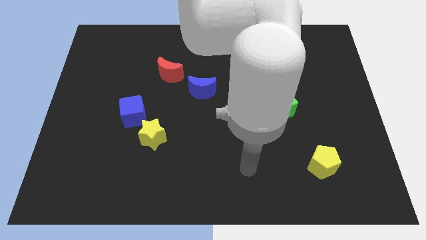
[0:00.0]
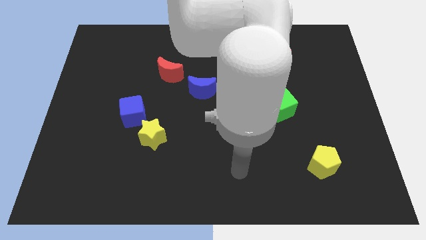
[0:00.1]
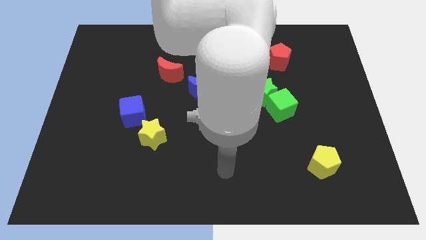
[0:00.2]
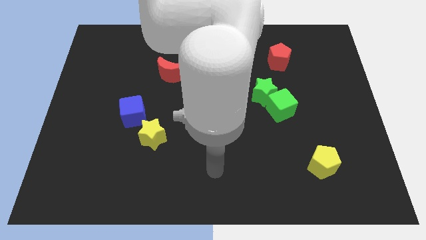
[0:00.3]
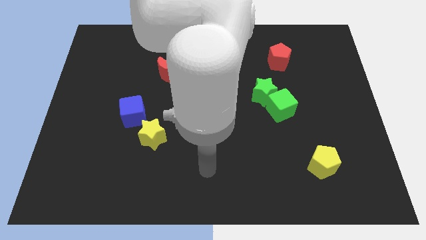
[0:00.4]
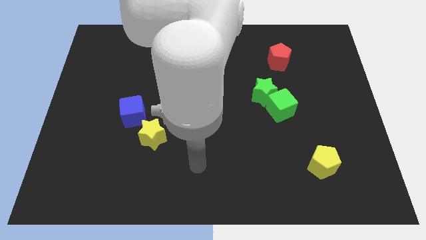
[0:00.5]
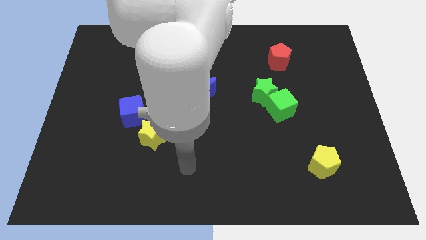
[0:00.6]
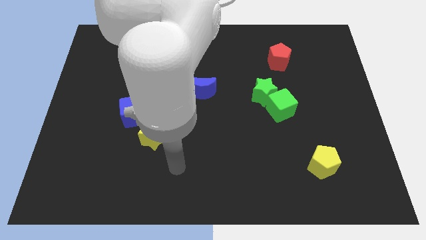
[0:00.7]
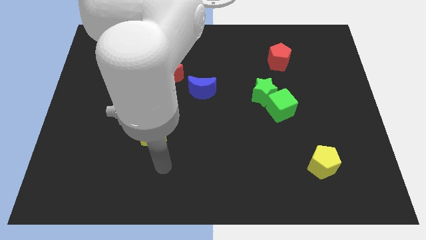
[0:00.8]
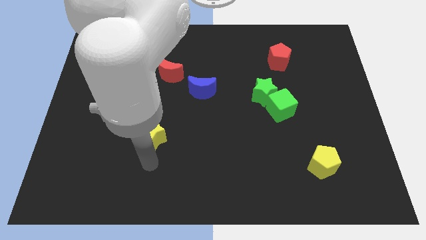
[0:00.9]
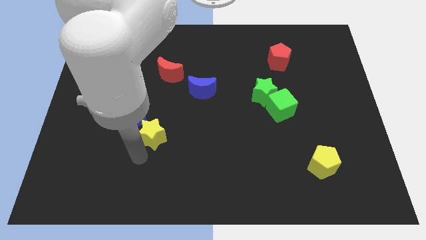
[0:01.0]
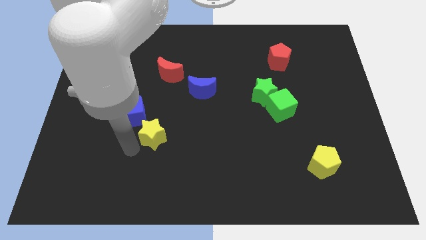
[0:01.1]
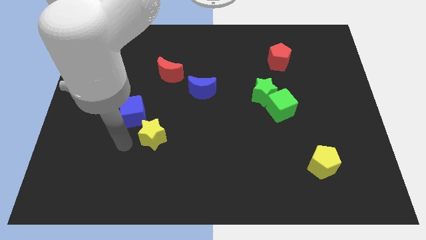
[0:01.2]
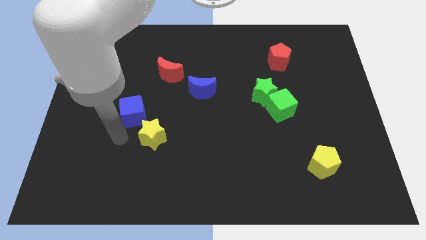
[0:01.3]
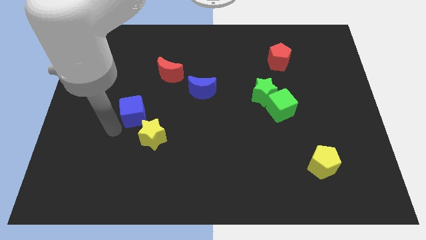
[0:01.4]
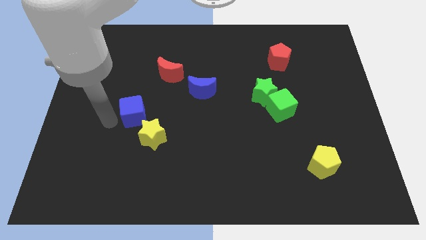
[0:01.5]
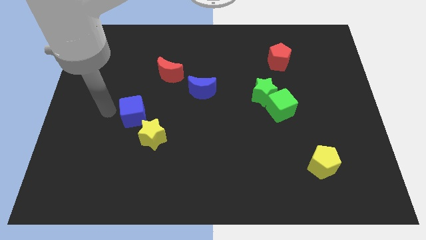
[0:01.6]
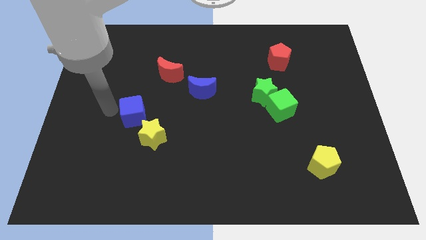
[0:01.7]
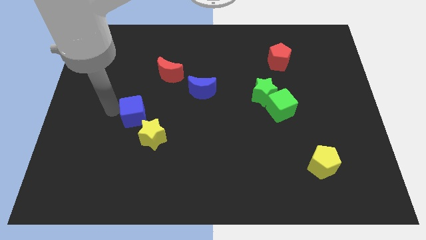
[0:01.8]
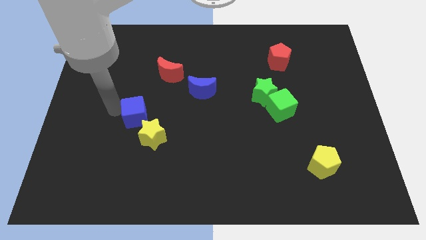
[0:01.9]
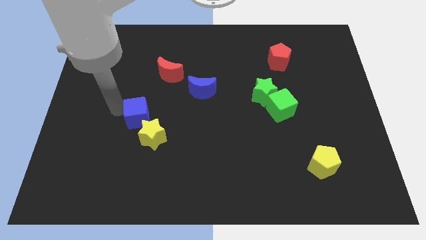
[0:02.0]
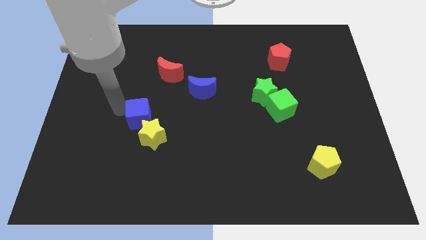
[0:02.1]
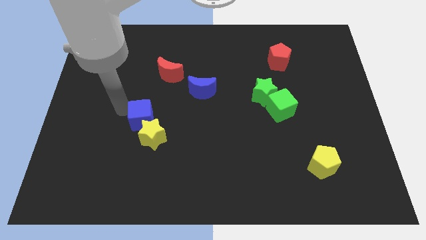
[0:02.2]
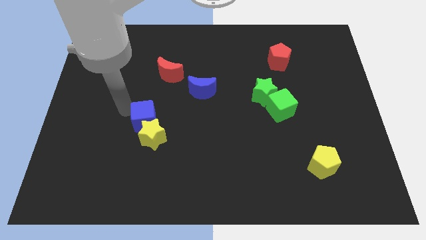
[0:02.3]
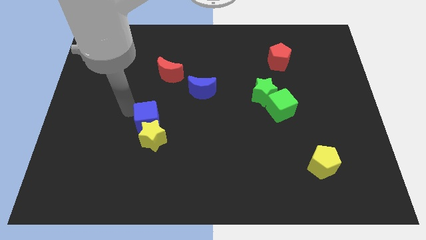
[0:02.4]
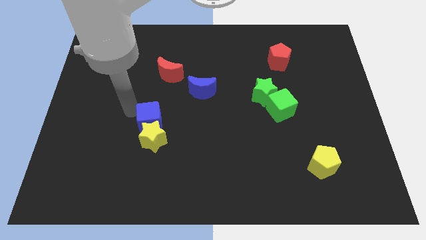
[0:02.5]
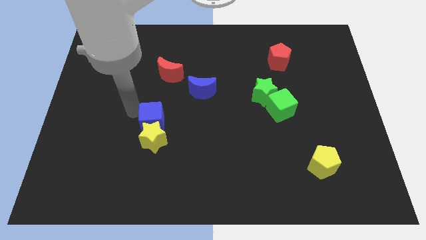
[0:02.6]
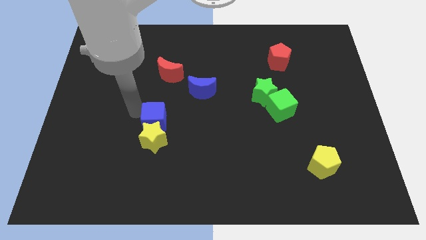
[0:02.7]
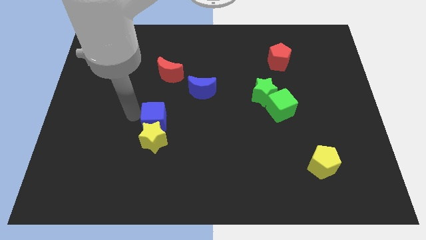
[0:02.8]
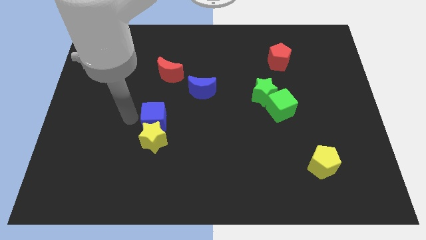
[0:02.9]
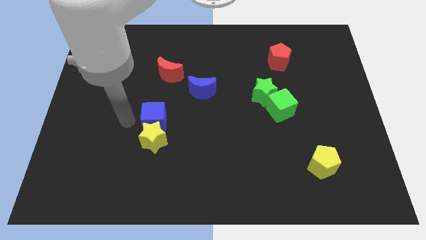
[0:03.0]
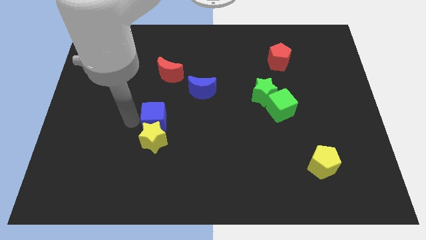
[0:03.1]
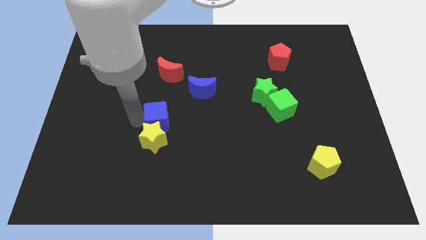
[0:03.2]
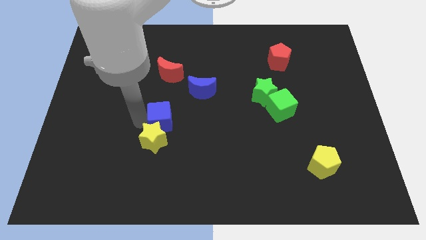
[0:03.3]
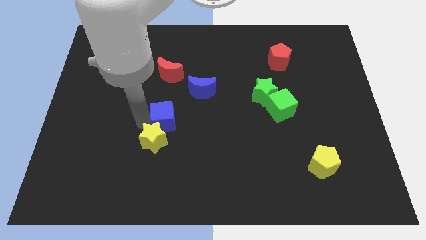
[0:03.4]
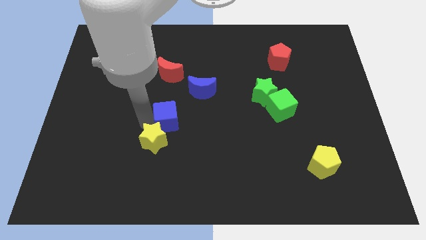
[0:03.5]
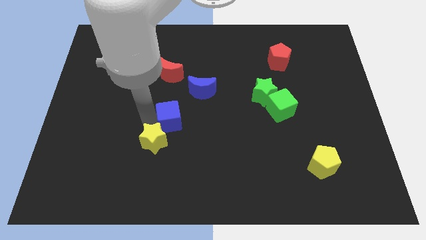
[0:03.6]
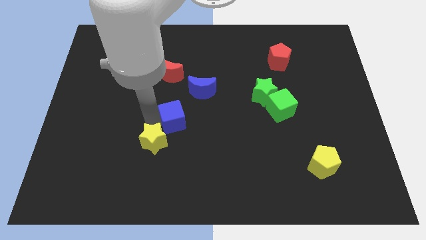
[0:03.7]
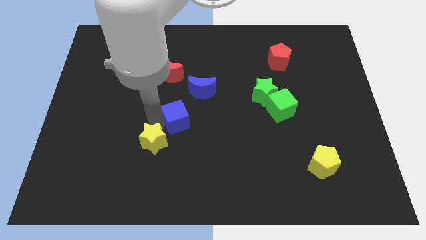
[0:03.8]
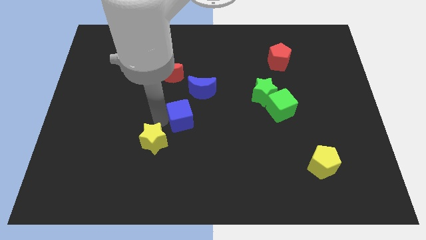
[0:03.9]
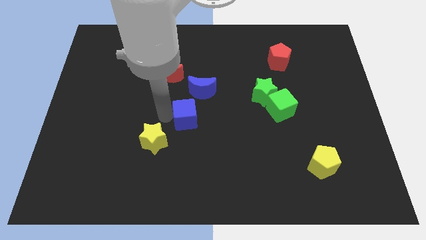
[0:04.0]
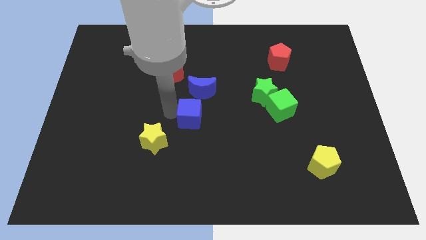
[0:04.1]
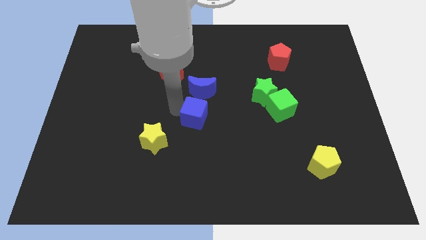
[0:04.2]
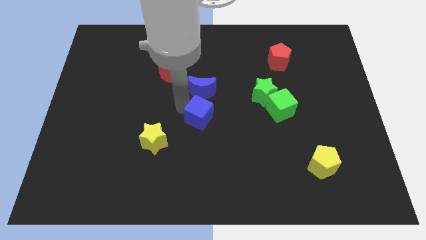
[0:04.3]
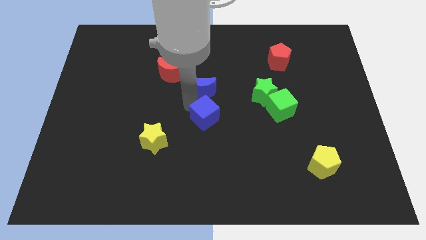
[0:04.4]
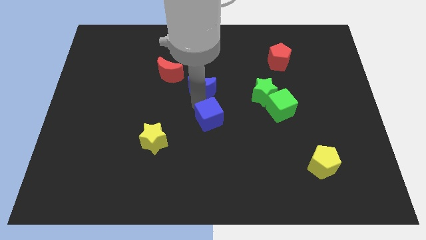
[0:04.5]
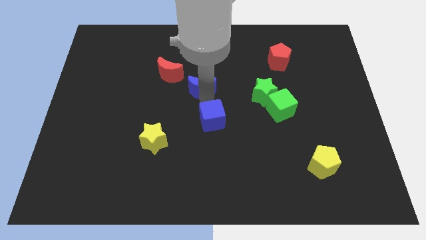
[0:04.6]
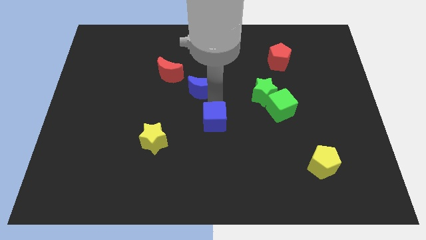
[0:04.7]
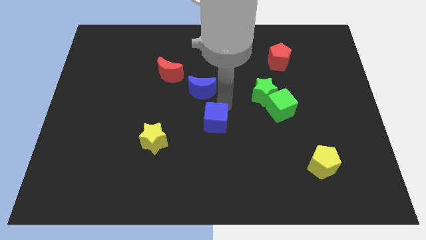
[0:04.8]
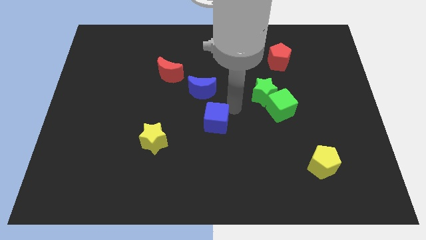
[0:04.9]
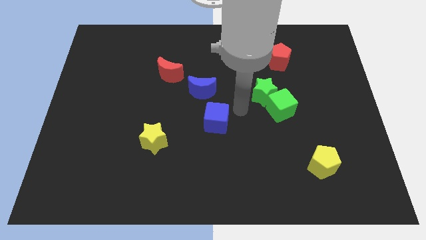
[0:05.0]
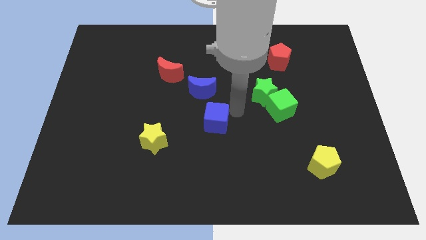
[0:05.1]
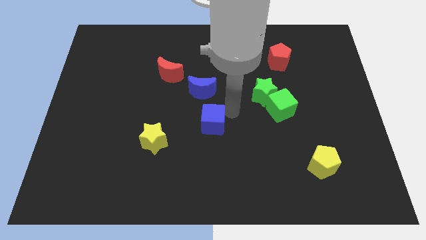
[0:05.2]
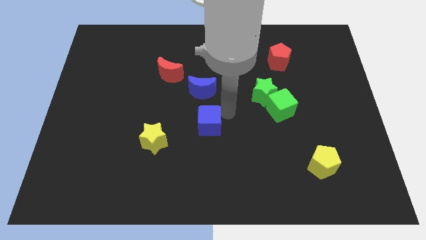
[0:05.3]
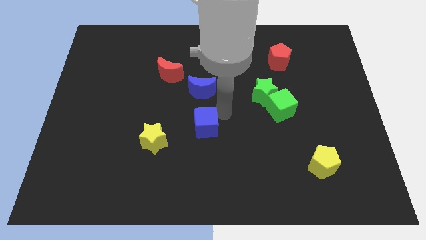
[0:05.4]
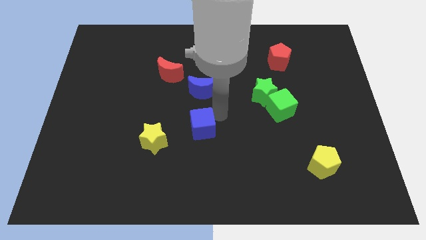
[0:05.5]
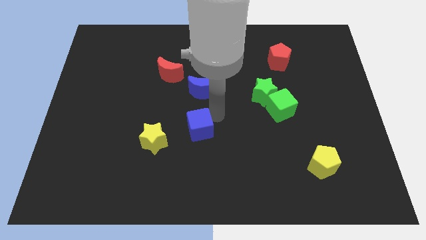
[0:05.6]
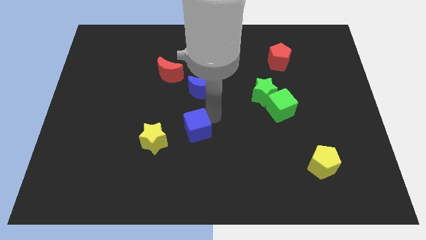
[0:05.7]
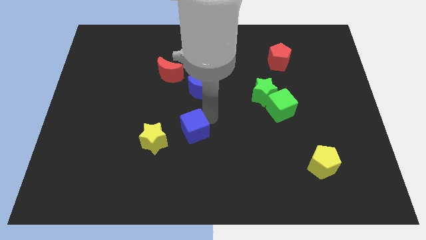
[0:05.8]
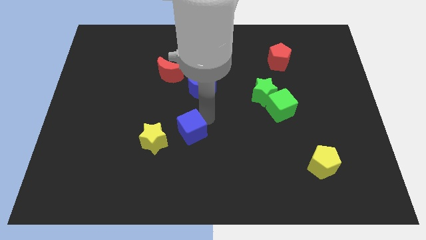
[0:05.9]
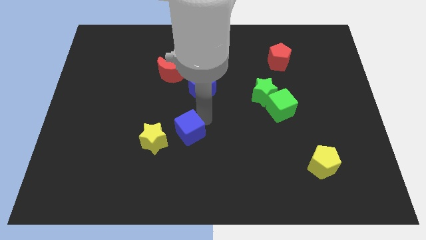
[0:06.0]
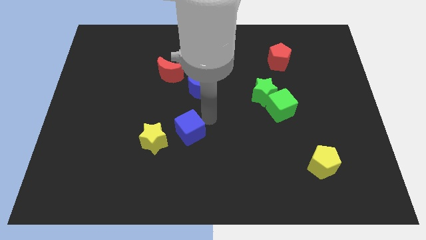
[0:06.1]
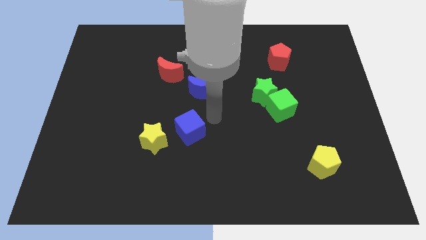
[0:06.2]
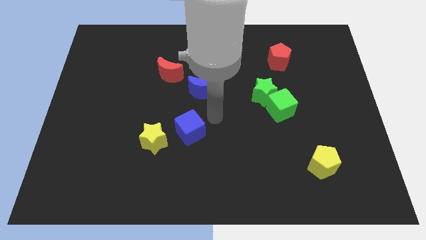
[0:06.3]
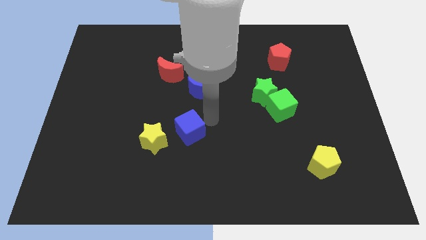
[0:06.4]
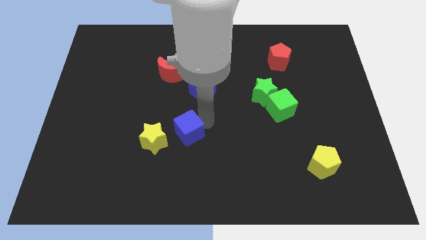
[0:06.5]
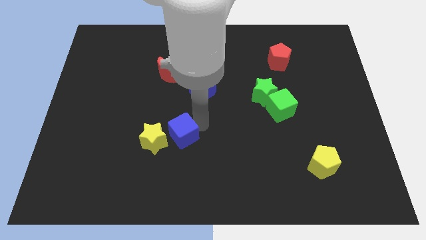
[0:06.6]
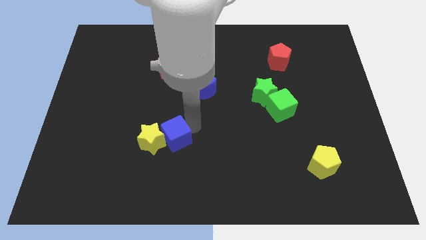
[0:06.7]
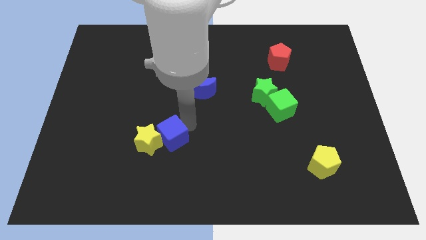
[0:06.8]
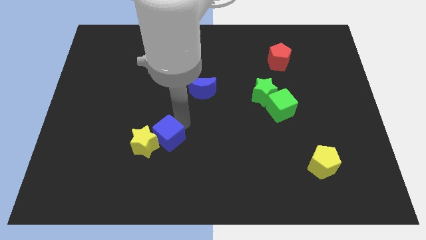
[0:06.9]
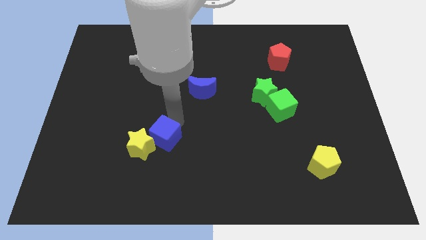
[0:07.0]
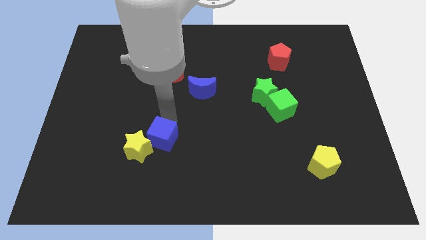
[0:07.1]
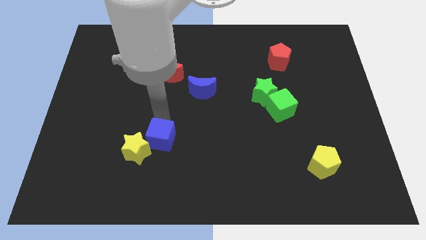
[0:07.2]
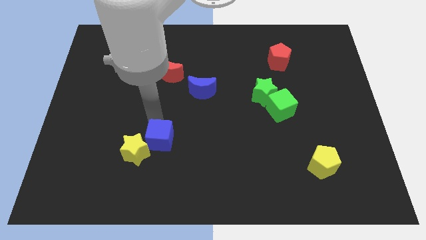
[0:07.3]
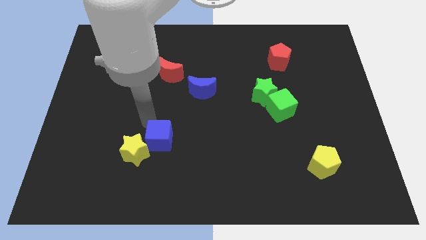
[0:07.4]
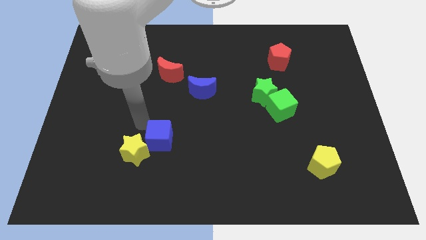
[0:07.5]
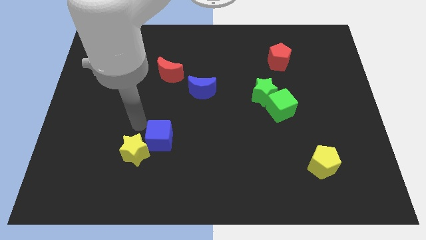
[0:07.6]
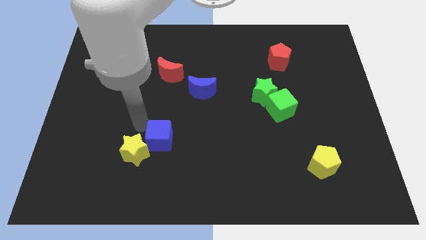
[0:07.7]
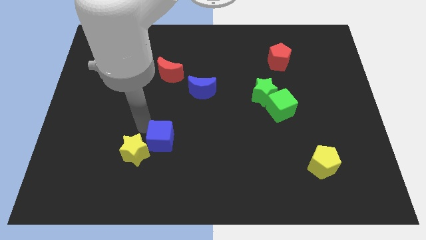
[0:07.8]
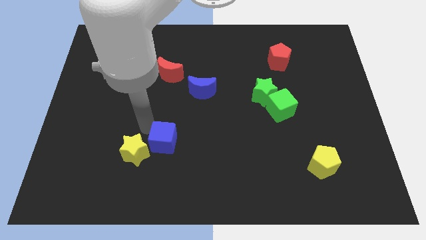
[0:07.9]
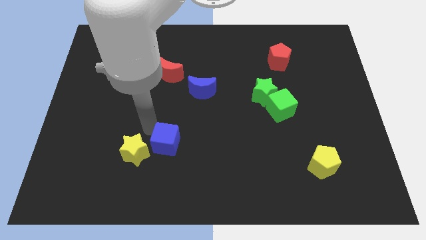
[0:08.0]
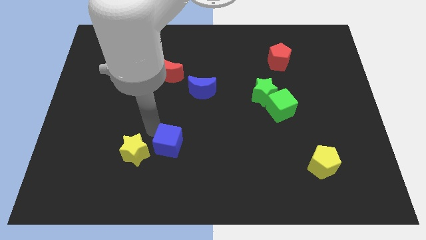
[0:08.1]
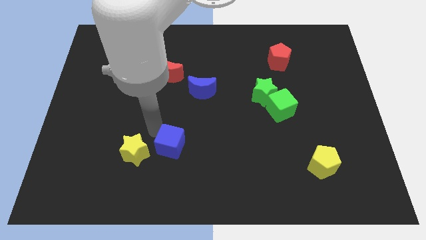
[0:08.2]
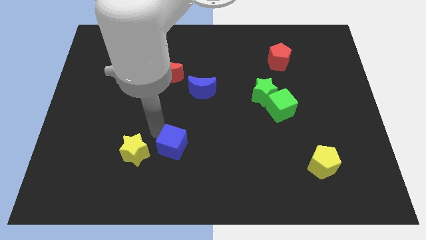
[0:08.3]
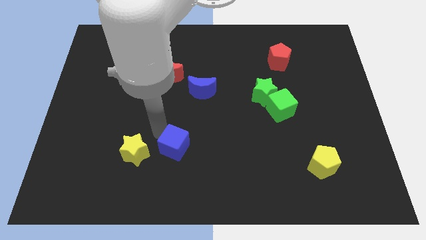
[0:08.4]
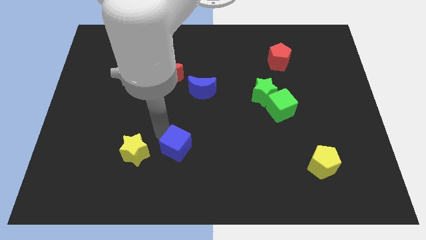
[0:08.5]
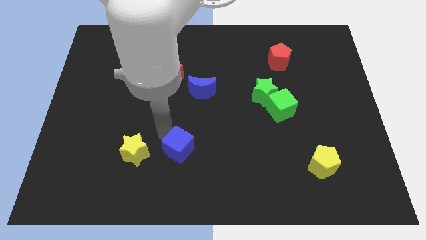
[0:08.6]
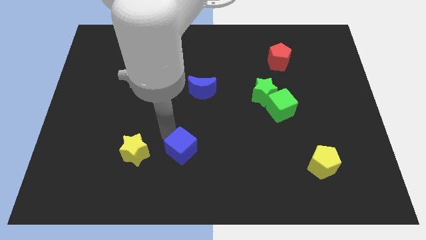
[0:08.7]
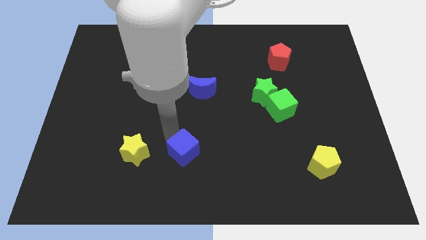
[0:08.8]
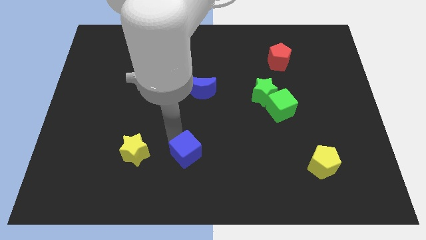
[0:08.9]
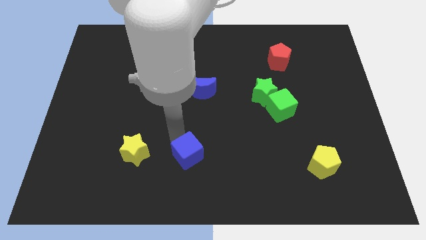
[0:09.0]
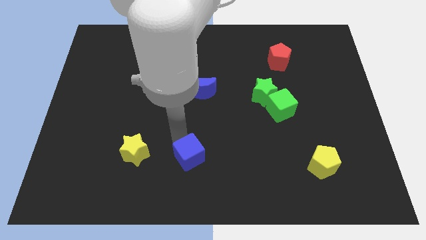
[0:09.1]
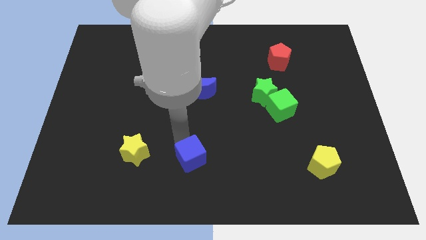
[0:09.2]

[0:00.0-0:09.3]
put the blue cube to the bottom
